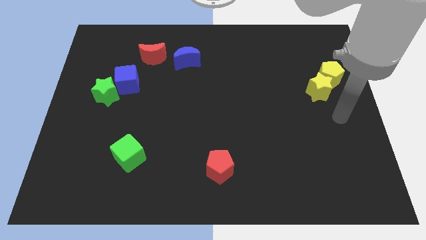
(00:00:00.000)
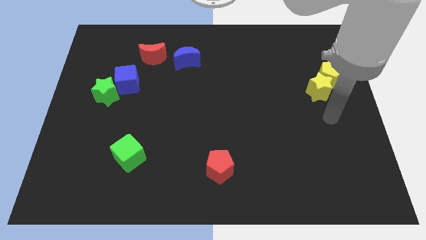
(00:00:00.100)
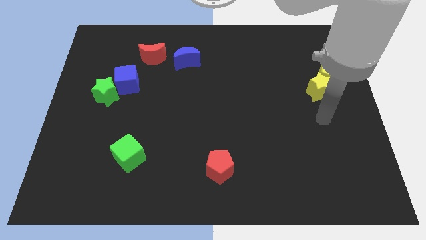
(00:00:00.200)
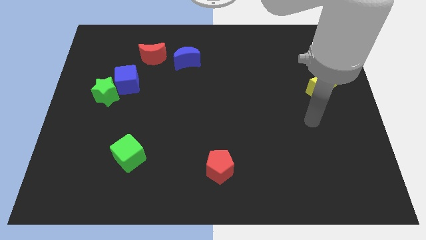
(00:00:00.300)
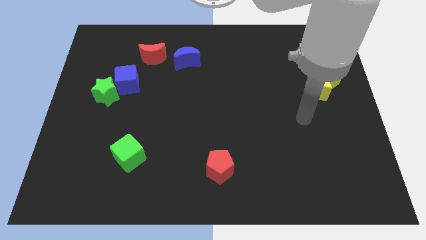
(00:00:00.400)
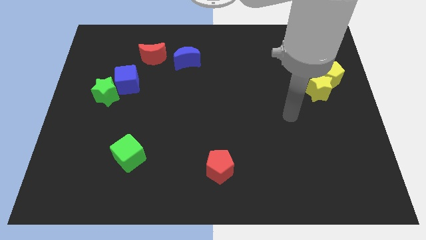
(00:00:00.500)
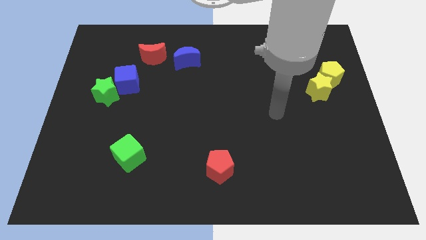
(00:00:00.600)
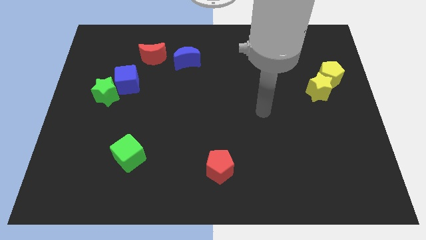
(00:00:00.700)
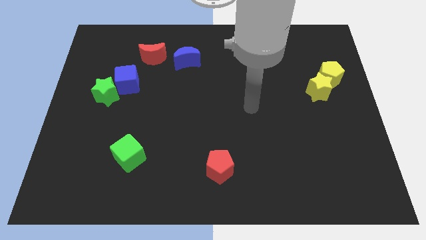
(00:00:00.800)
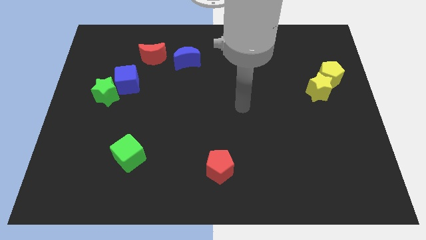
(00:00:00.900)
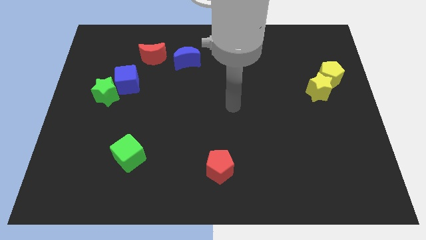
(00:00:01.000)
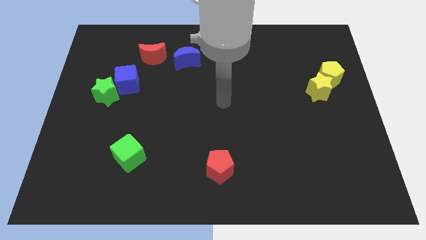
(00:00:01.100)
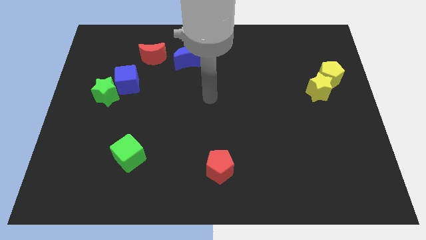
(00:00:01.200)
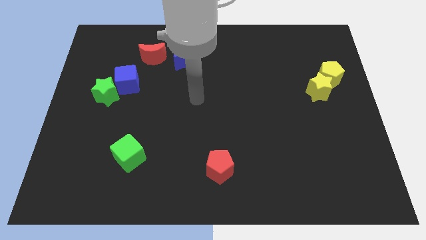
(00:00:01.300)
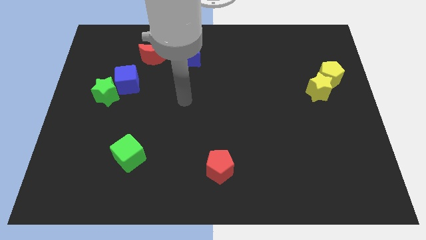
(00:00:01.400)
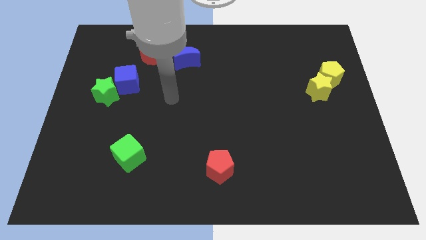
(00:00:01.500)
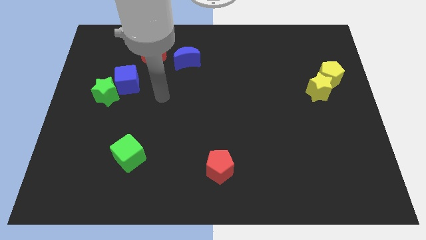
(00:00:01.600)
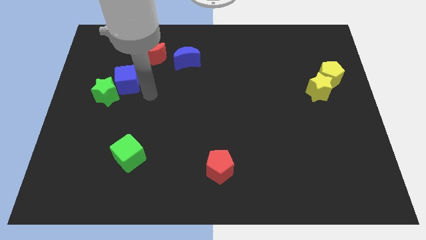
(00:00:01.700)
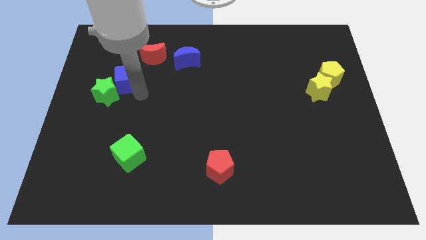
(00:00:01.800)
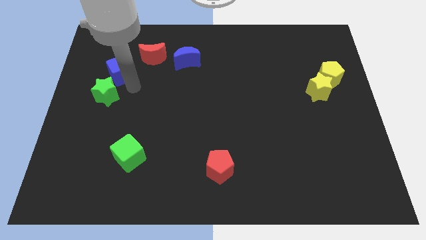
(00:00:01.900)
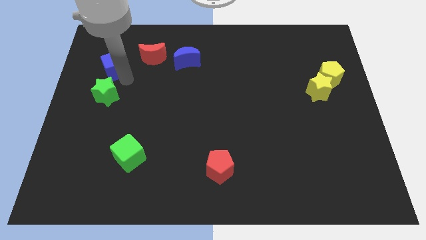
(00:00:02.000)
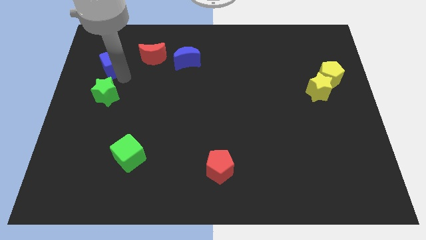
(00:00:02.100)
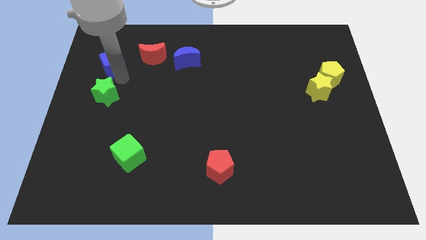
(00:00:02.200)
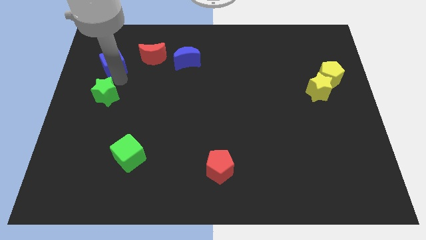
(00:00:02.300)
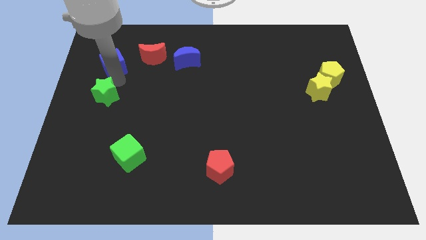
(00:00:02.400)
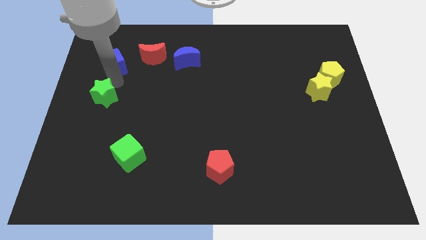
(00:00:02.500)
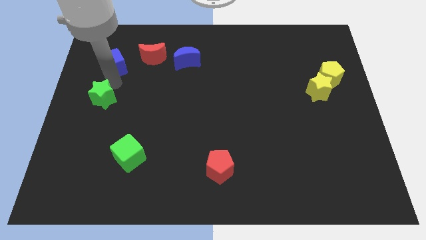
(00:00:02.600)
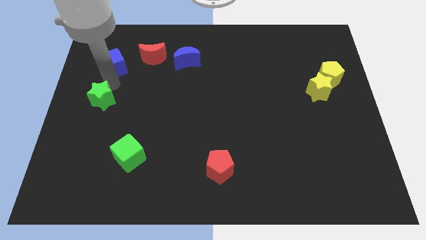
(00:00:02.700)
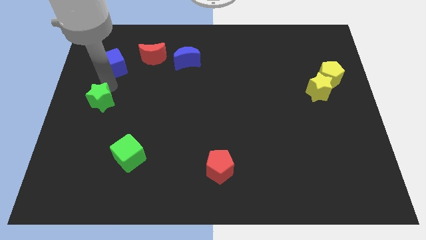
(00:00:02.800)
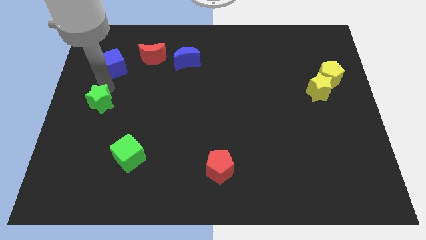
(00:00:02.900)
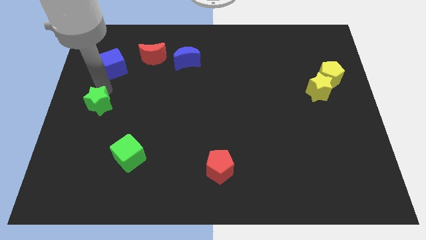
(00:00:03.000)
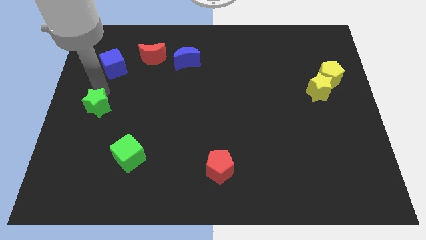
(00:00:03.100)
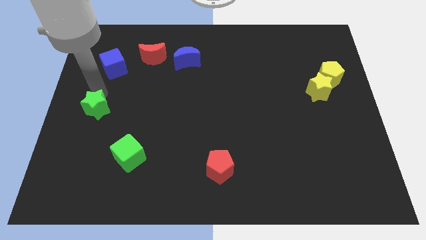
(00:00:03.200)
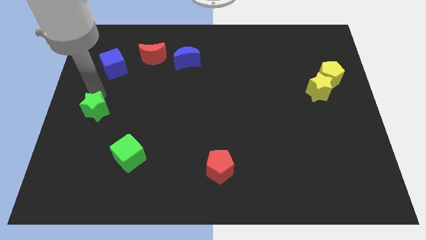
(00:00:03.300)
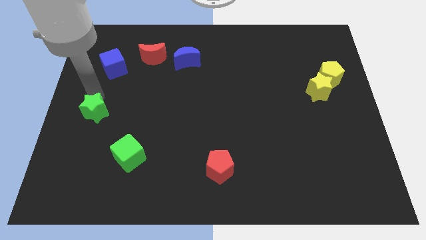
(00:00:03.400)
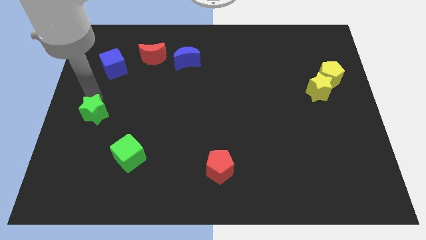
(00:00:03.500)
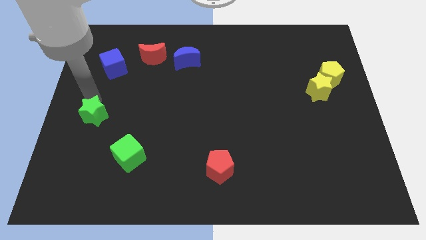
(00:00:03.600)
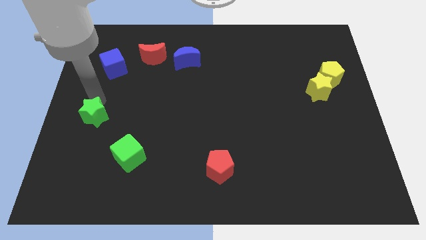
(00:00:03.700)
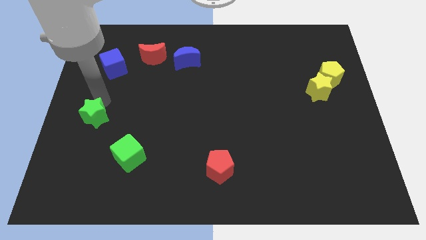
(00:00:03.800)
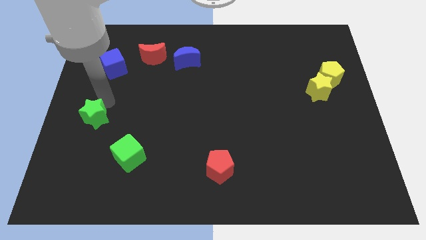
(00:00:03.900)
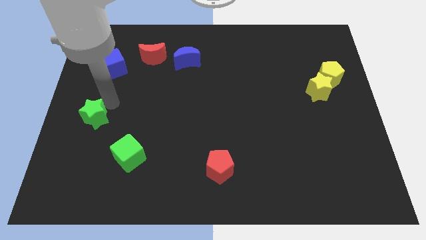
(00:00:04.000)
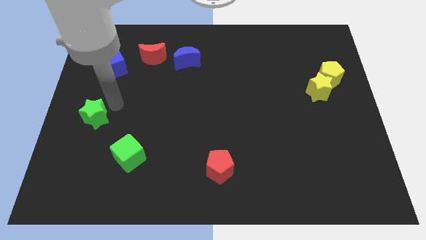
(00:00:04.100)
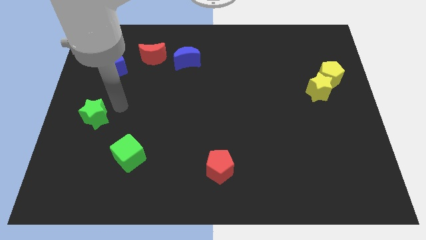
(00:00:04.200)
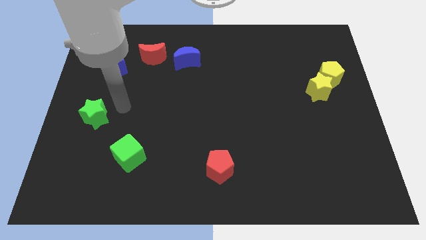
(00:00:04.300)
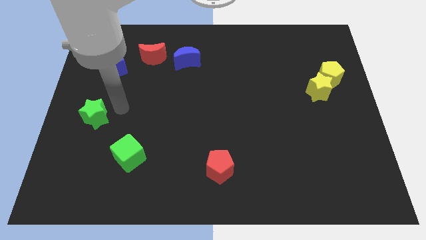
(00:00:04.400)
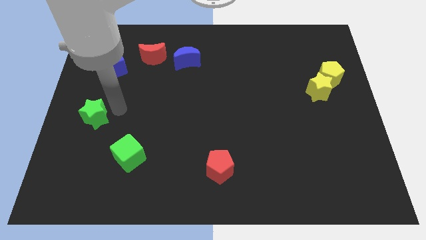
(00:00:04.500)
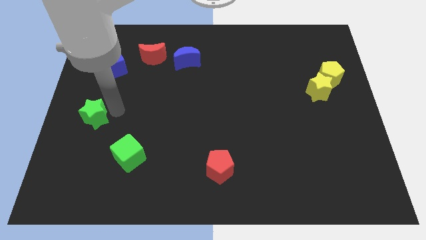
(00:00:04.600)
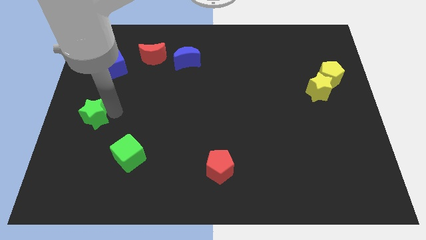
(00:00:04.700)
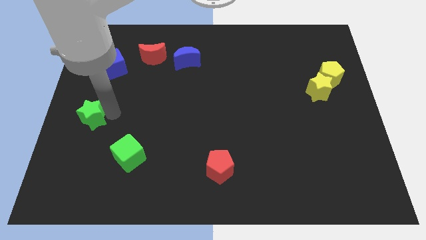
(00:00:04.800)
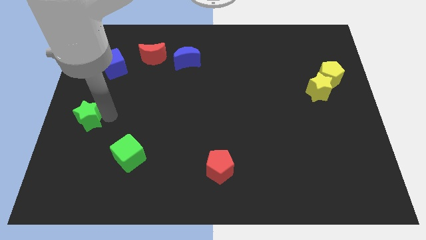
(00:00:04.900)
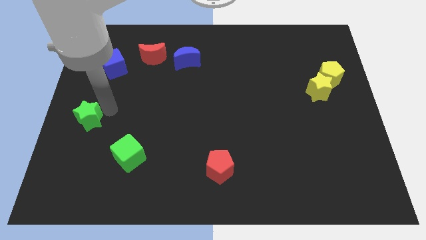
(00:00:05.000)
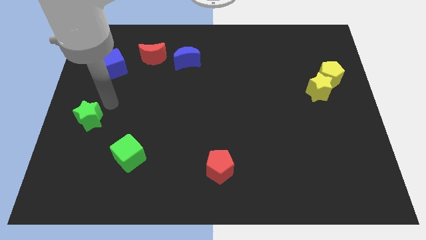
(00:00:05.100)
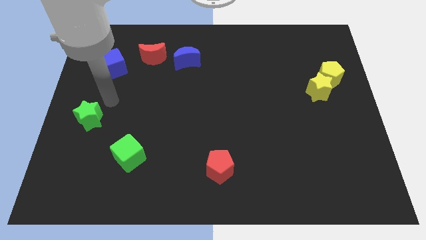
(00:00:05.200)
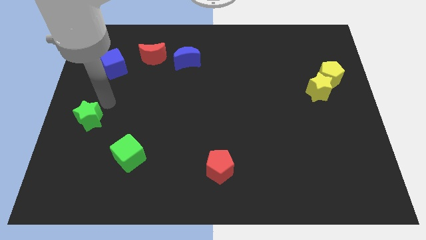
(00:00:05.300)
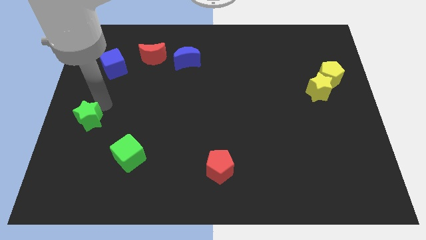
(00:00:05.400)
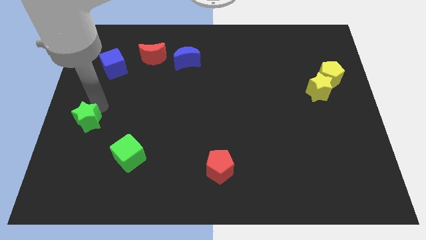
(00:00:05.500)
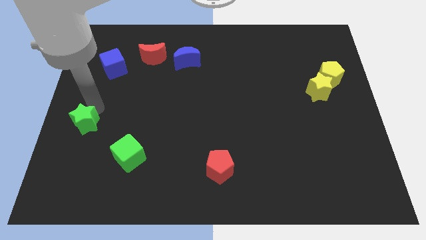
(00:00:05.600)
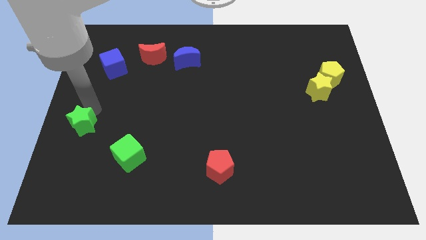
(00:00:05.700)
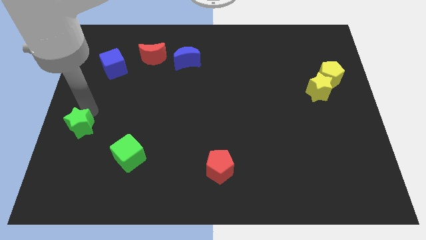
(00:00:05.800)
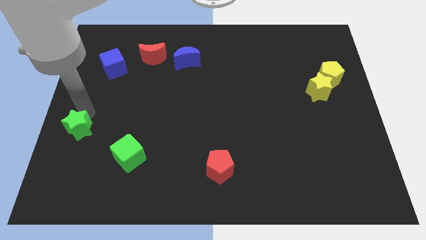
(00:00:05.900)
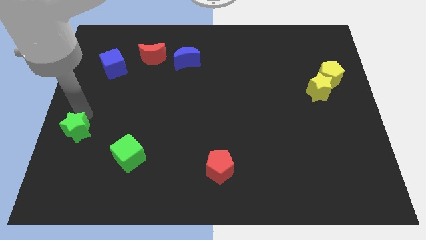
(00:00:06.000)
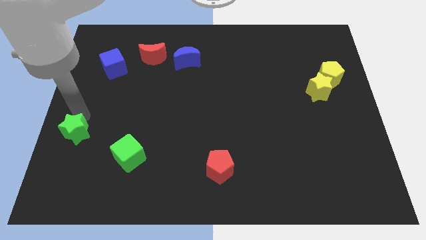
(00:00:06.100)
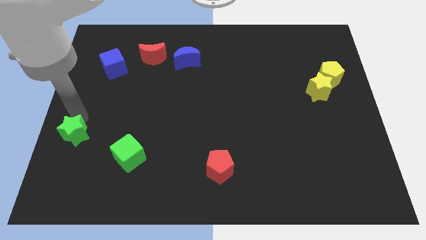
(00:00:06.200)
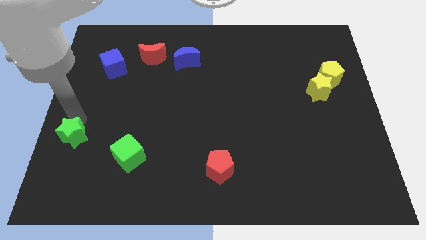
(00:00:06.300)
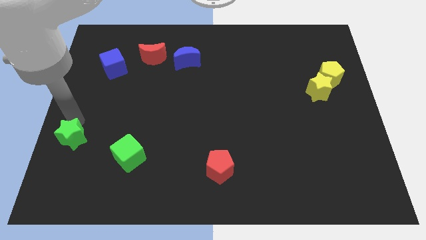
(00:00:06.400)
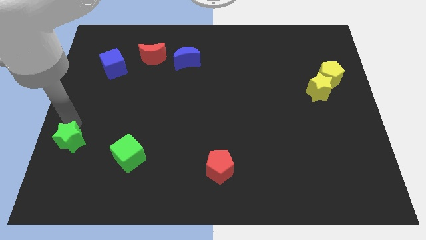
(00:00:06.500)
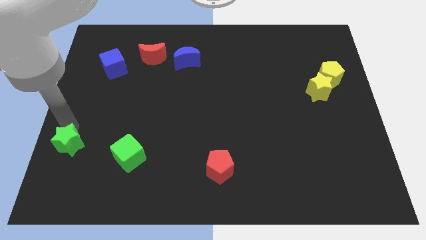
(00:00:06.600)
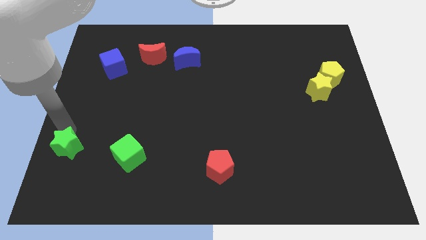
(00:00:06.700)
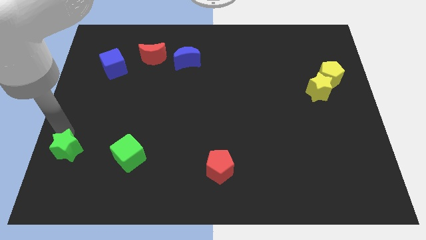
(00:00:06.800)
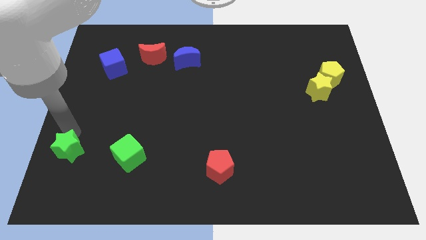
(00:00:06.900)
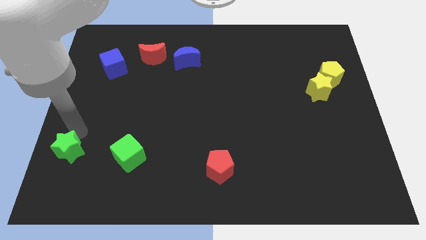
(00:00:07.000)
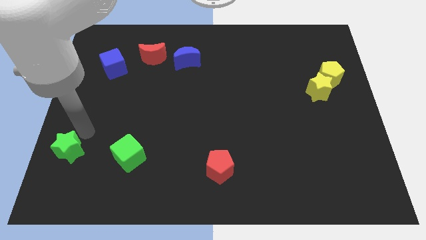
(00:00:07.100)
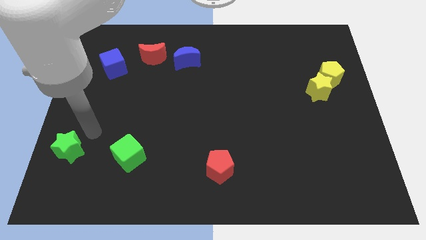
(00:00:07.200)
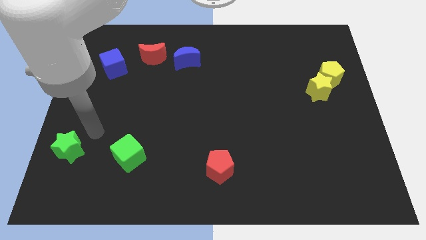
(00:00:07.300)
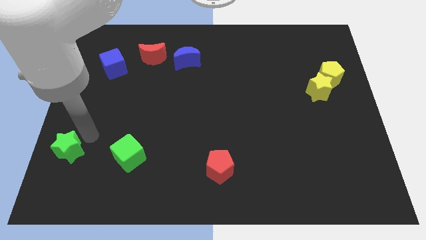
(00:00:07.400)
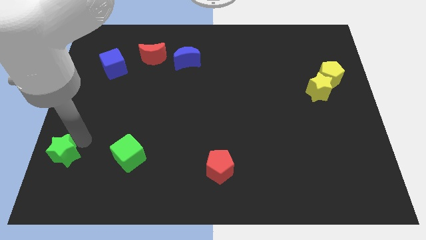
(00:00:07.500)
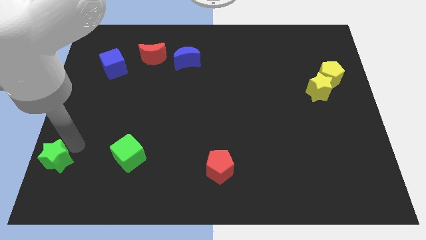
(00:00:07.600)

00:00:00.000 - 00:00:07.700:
put the green star to the lower left corner
